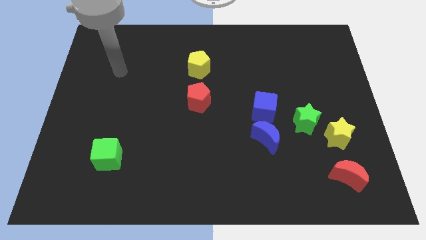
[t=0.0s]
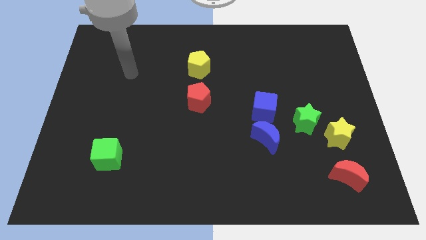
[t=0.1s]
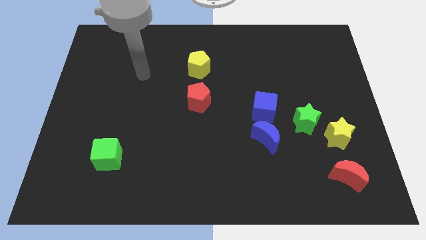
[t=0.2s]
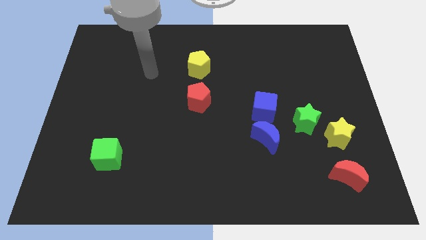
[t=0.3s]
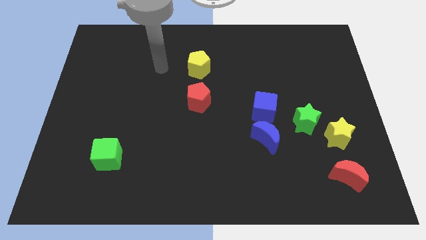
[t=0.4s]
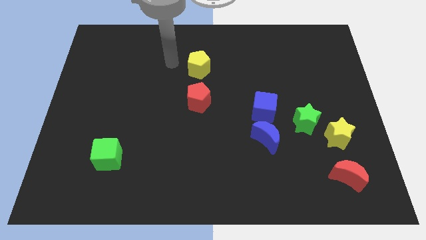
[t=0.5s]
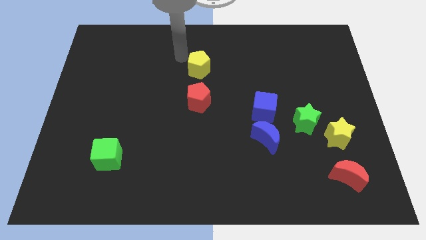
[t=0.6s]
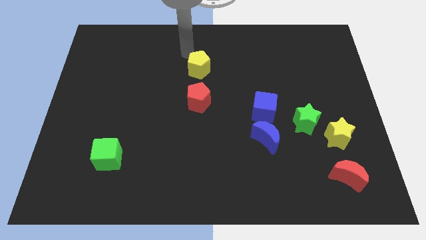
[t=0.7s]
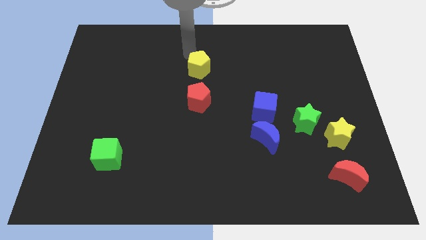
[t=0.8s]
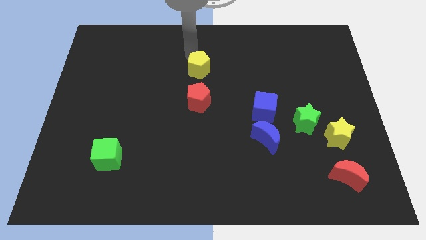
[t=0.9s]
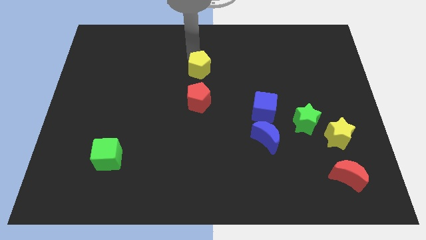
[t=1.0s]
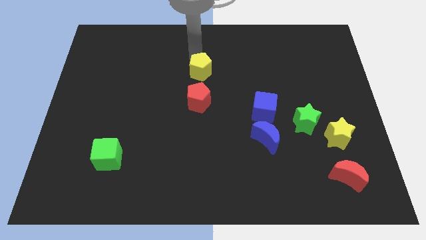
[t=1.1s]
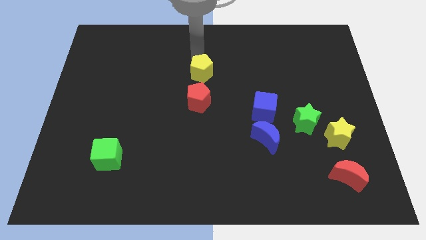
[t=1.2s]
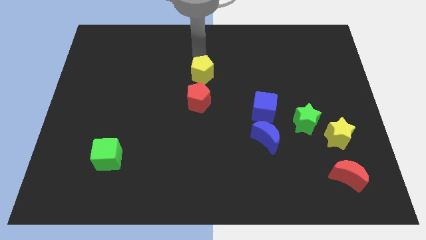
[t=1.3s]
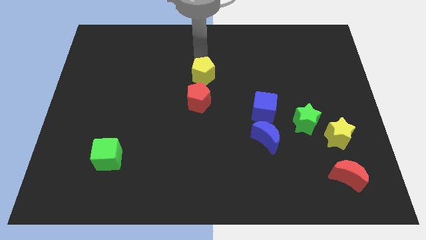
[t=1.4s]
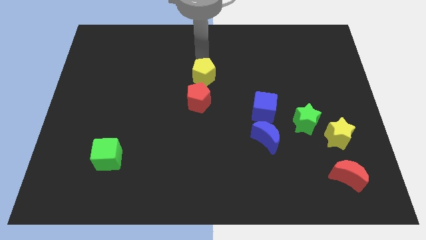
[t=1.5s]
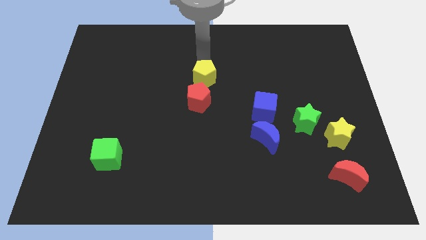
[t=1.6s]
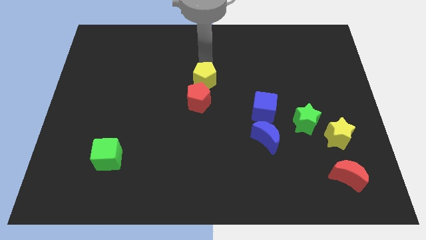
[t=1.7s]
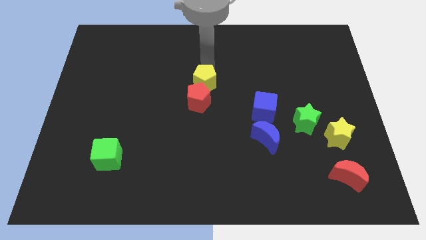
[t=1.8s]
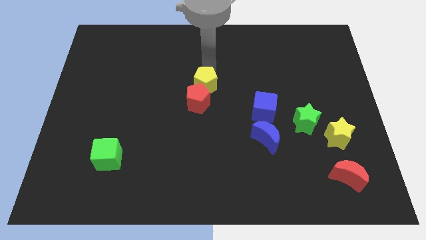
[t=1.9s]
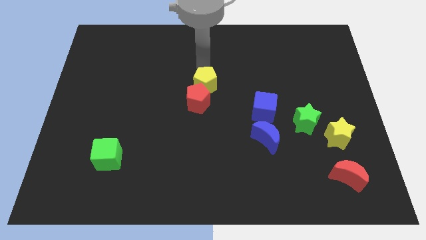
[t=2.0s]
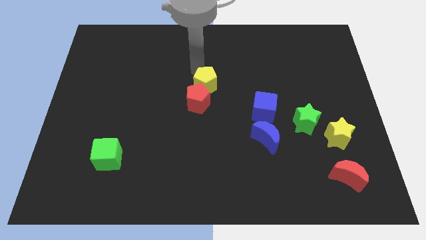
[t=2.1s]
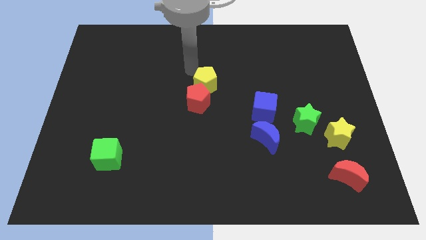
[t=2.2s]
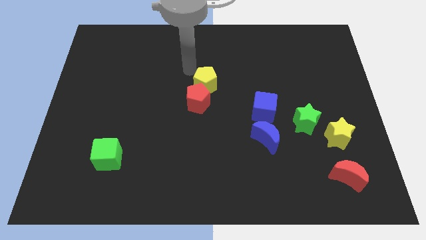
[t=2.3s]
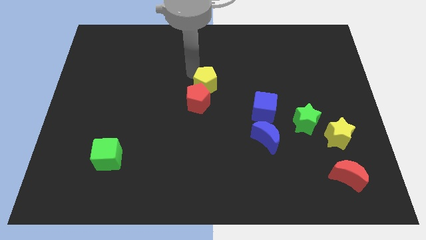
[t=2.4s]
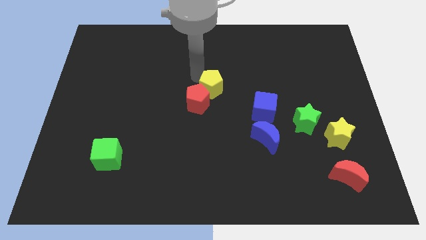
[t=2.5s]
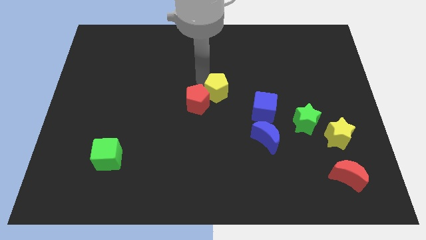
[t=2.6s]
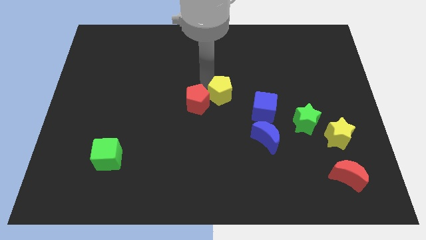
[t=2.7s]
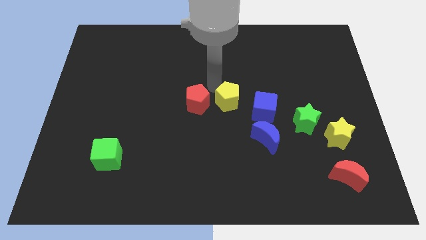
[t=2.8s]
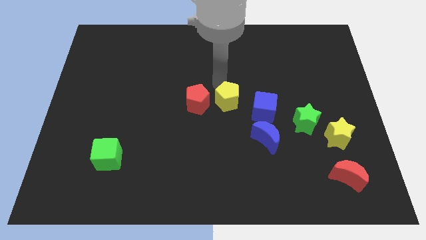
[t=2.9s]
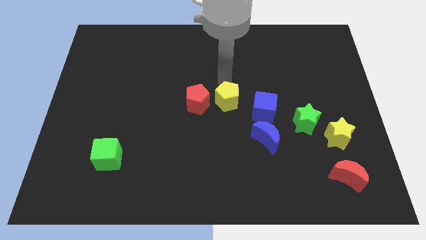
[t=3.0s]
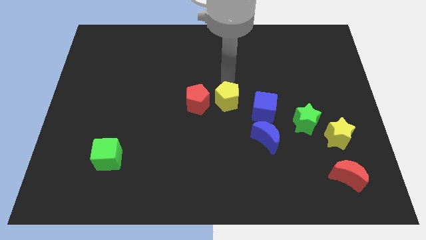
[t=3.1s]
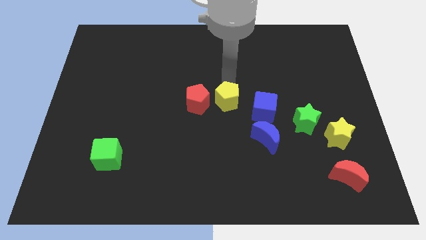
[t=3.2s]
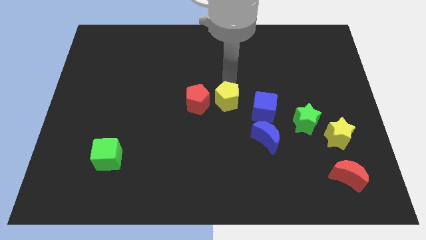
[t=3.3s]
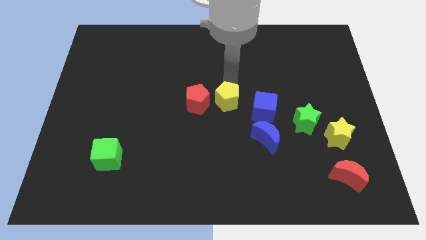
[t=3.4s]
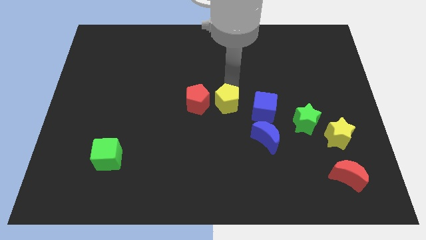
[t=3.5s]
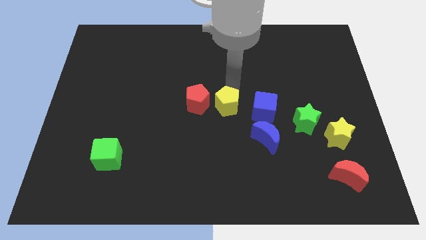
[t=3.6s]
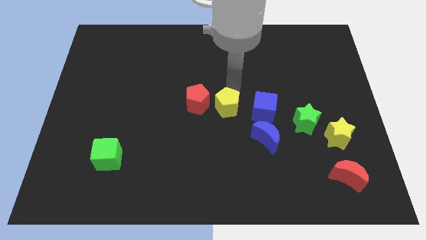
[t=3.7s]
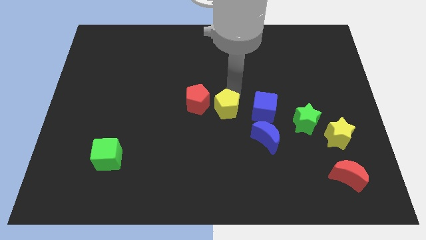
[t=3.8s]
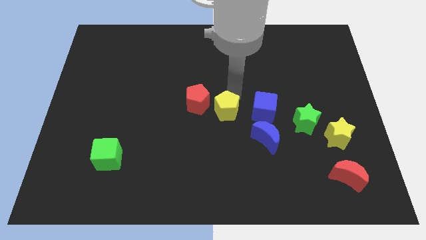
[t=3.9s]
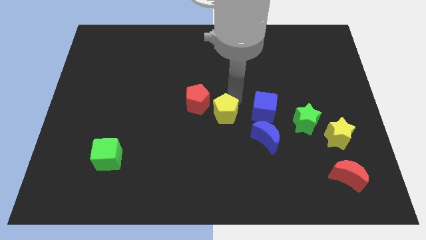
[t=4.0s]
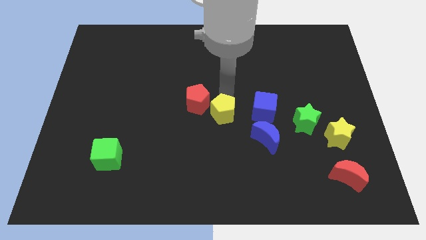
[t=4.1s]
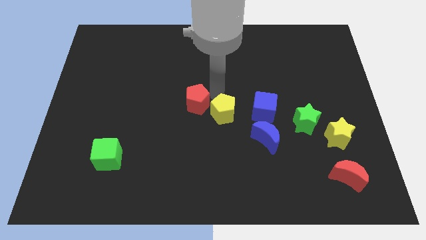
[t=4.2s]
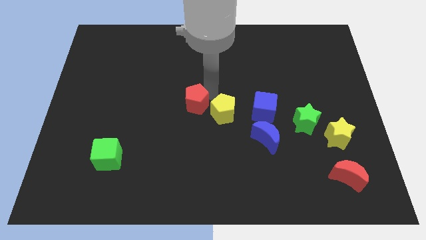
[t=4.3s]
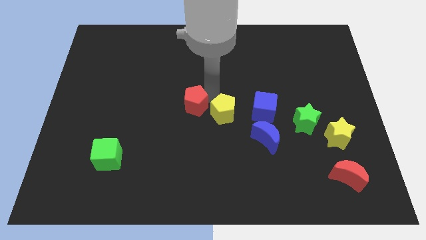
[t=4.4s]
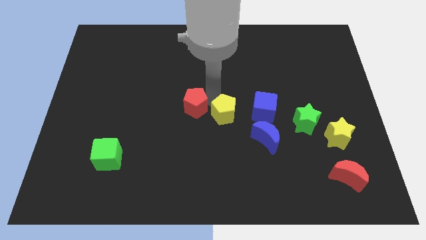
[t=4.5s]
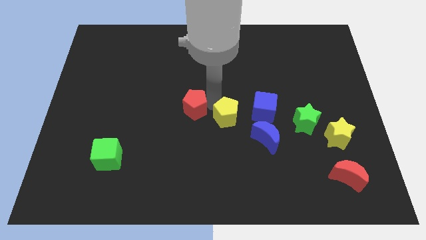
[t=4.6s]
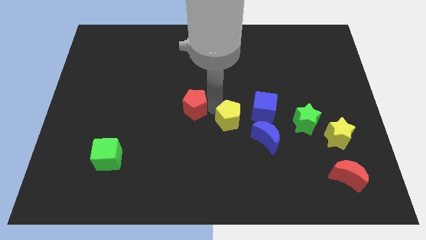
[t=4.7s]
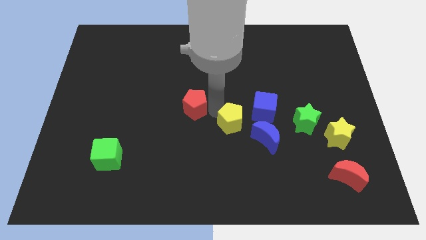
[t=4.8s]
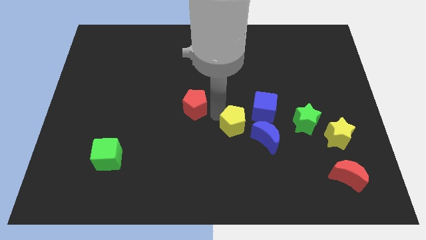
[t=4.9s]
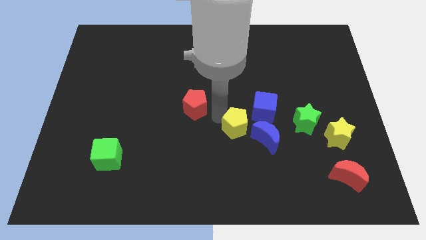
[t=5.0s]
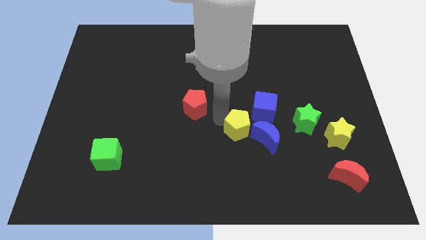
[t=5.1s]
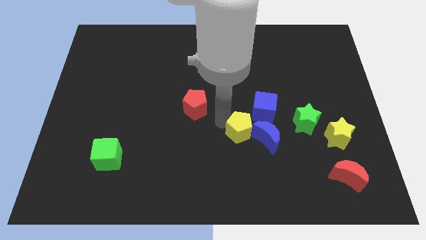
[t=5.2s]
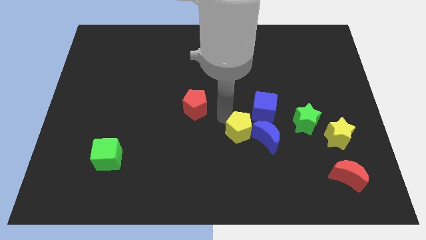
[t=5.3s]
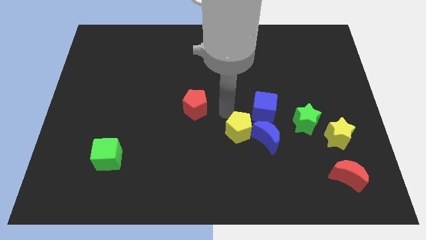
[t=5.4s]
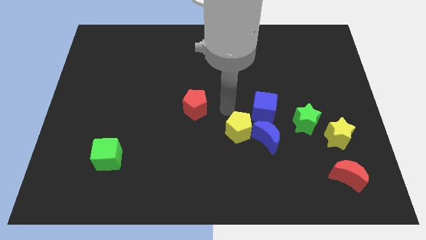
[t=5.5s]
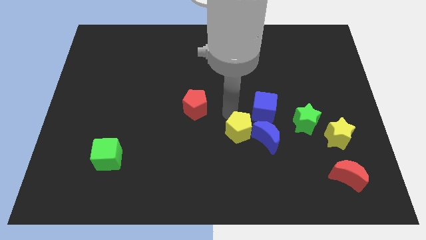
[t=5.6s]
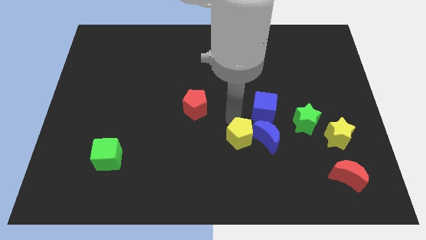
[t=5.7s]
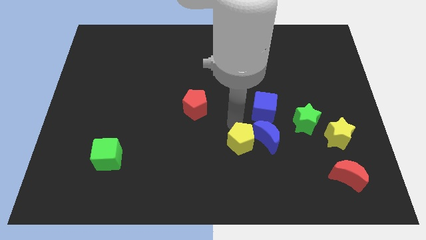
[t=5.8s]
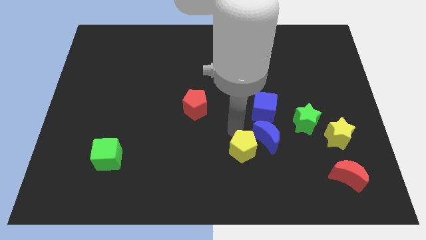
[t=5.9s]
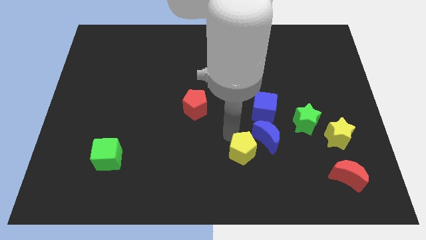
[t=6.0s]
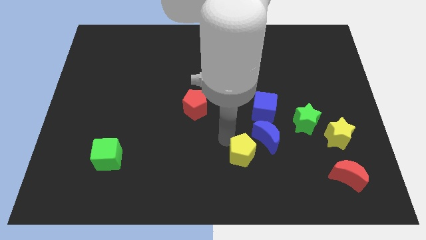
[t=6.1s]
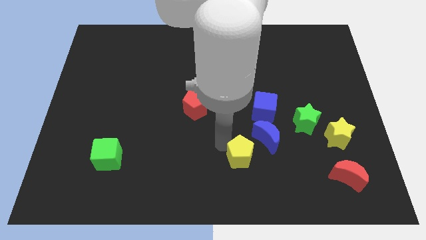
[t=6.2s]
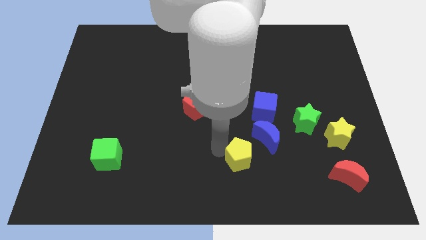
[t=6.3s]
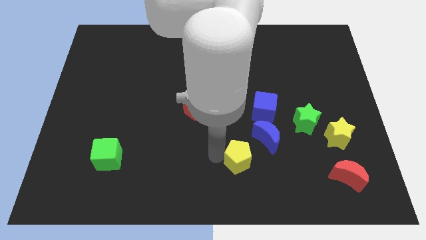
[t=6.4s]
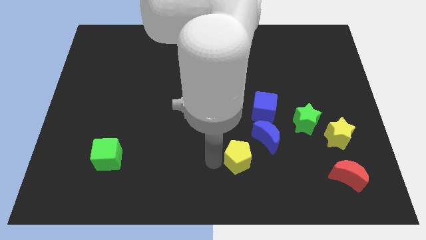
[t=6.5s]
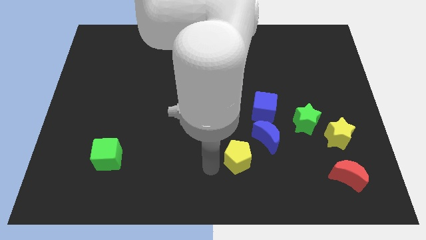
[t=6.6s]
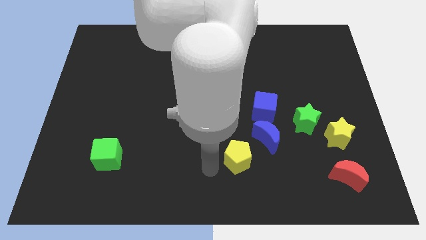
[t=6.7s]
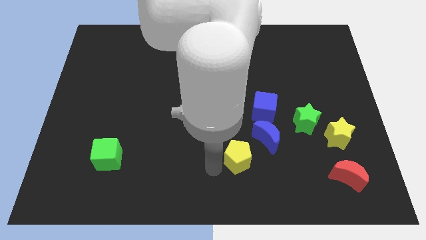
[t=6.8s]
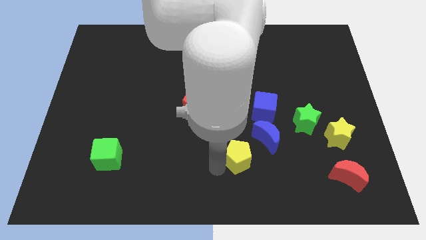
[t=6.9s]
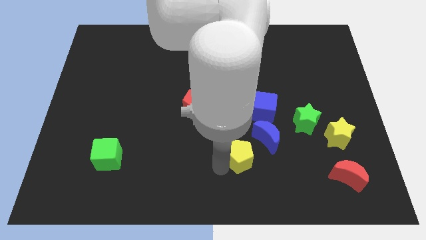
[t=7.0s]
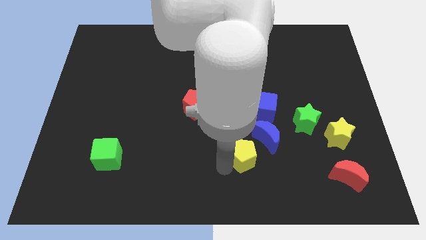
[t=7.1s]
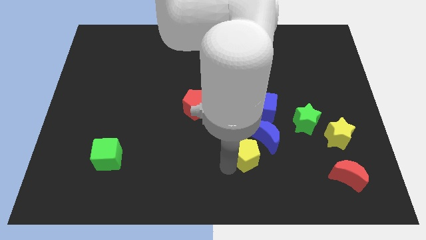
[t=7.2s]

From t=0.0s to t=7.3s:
put the yellow pentagon below the blue cube
